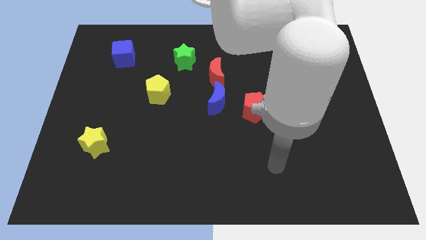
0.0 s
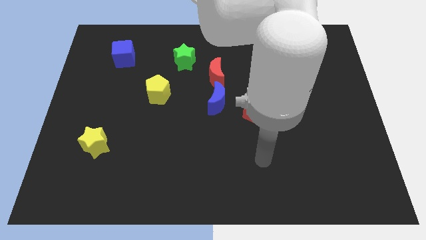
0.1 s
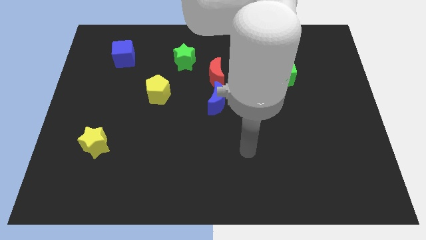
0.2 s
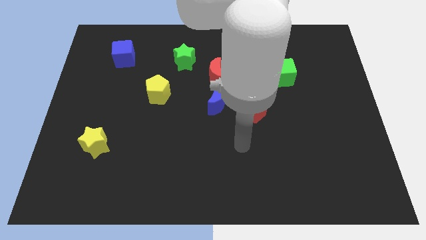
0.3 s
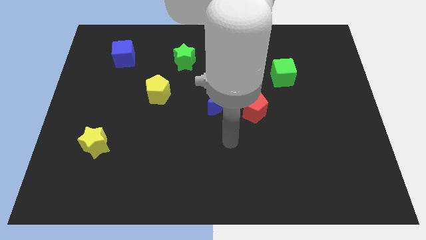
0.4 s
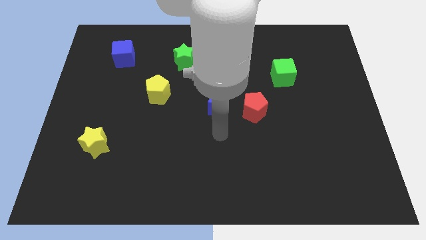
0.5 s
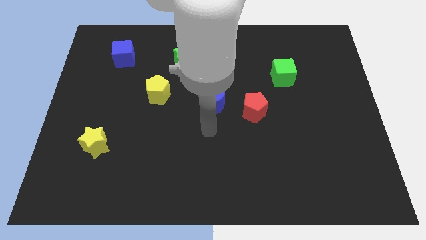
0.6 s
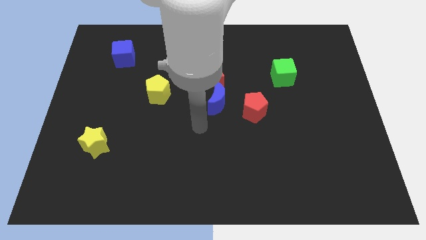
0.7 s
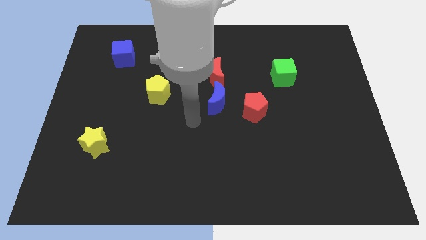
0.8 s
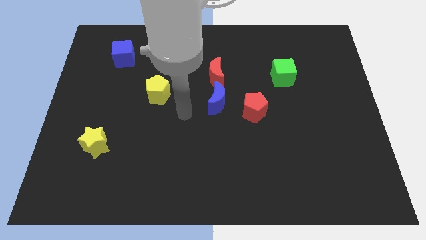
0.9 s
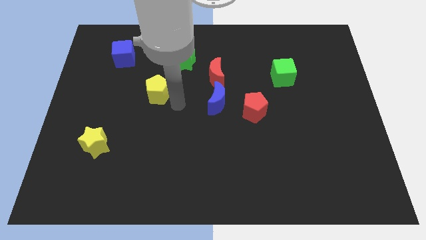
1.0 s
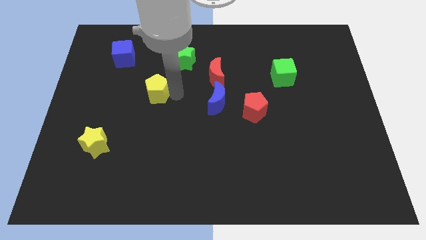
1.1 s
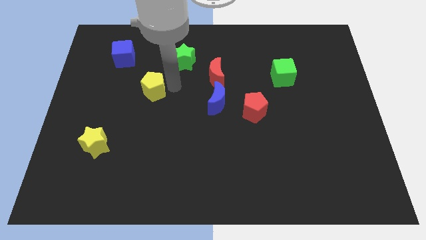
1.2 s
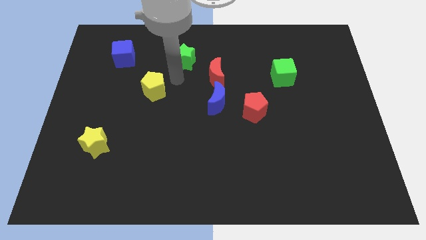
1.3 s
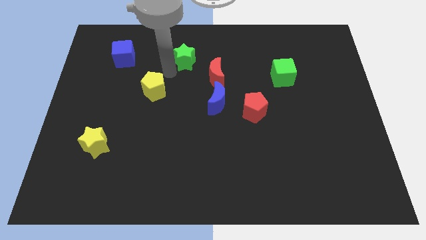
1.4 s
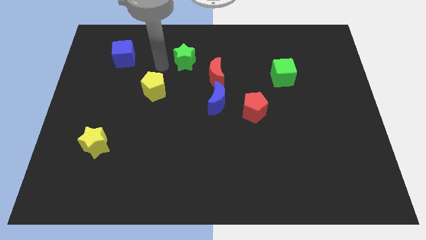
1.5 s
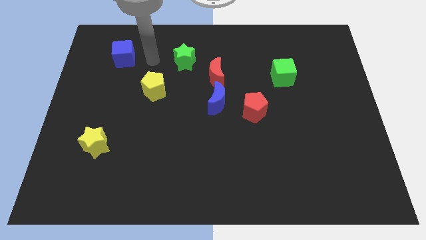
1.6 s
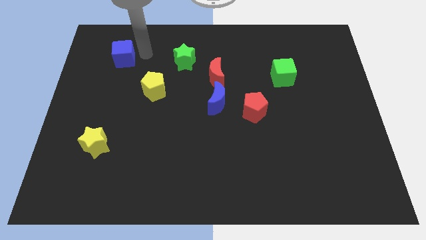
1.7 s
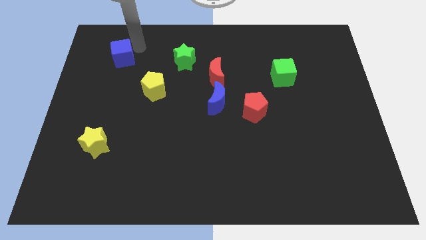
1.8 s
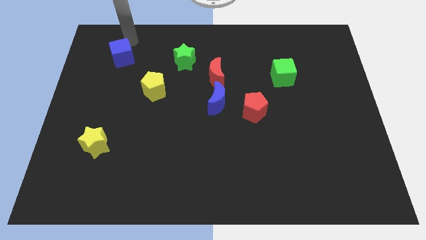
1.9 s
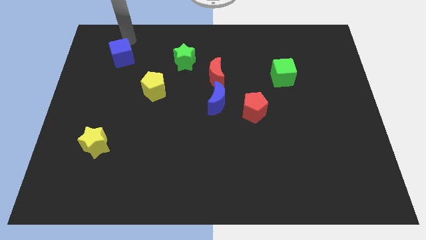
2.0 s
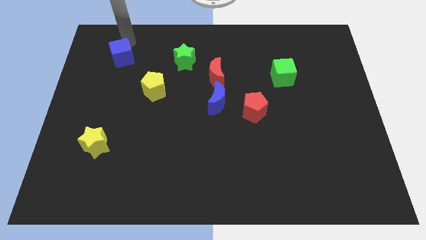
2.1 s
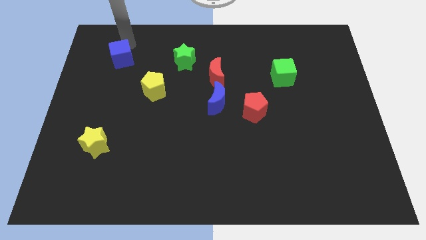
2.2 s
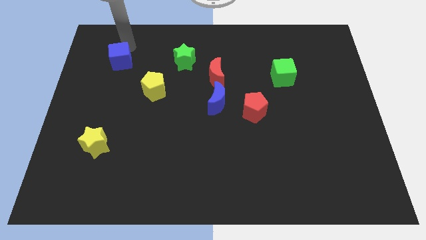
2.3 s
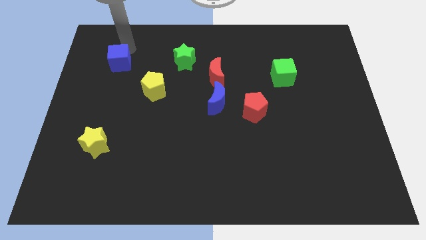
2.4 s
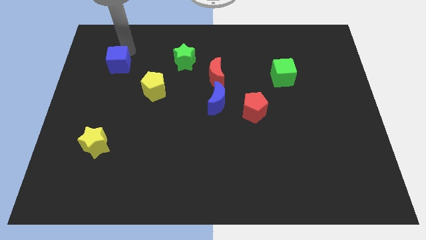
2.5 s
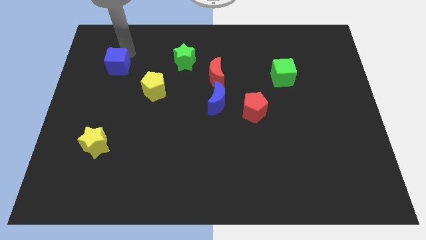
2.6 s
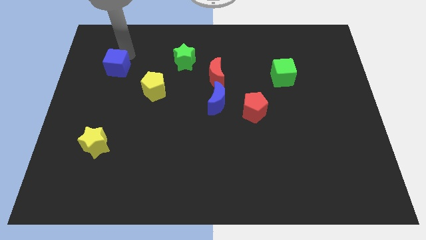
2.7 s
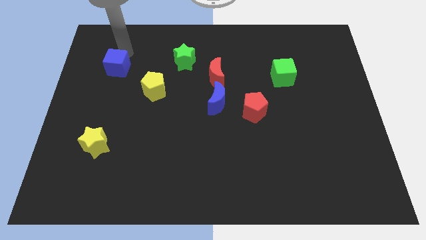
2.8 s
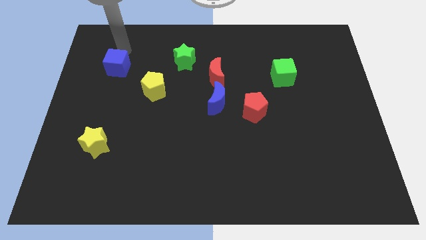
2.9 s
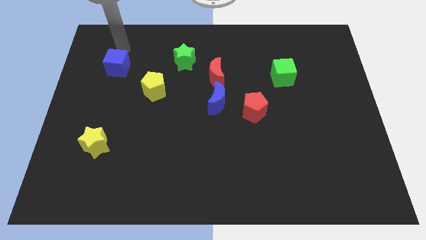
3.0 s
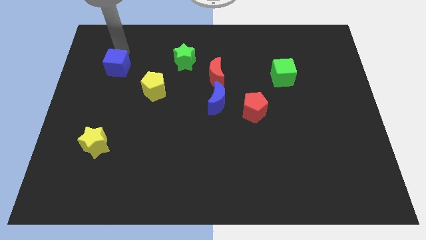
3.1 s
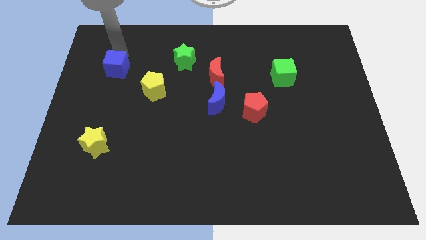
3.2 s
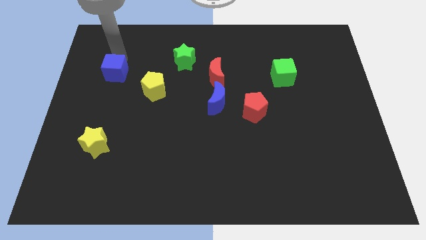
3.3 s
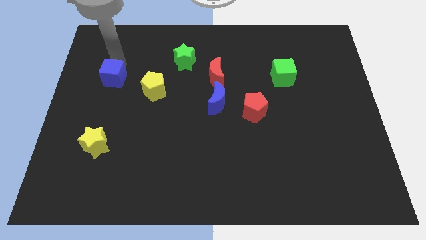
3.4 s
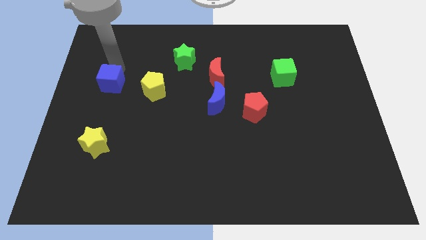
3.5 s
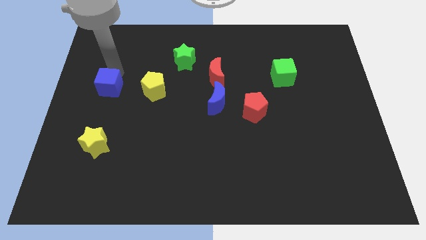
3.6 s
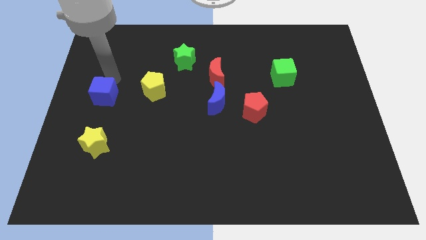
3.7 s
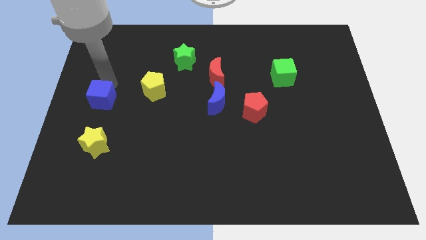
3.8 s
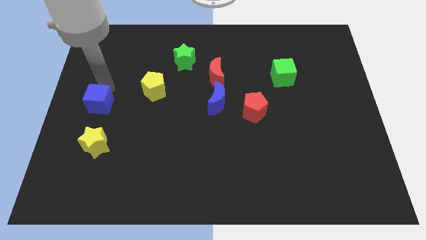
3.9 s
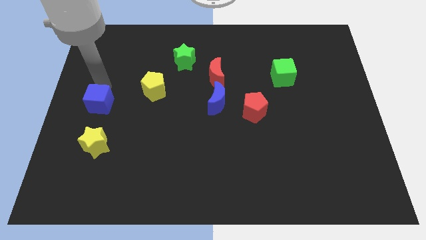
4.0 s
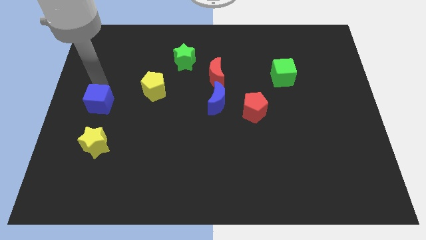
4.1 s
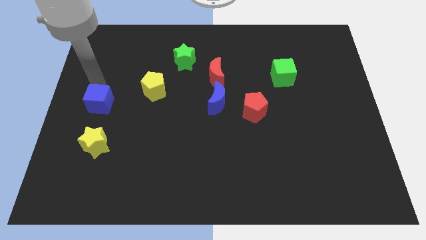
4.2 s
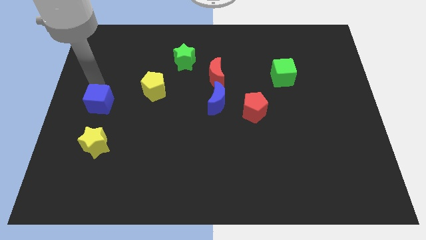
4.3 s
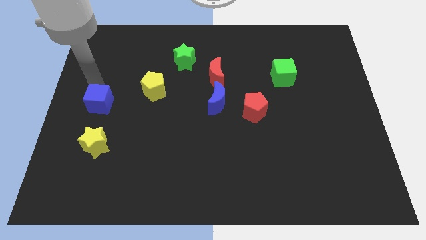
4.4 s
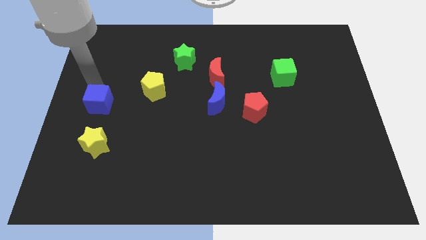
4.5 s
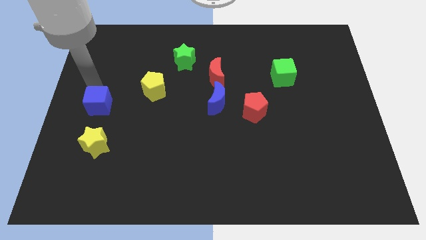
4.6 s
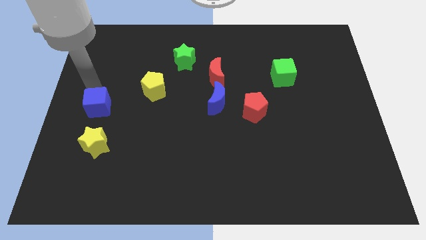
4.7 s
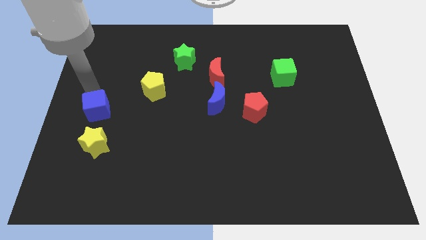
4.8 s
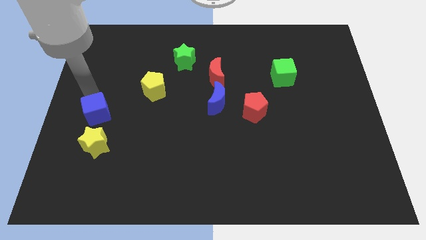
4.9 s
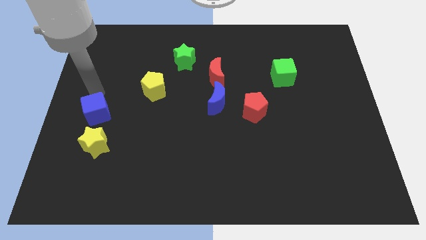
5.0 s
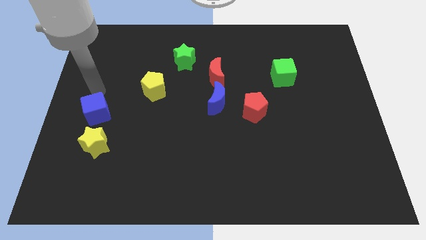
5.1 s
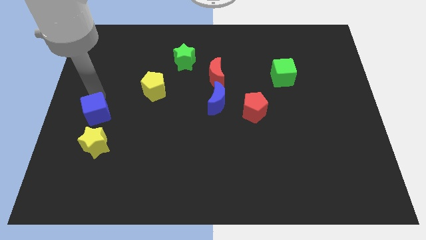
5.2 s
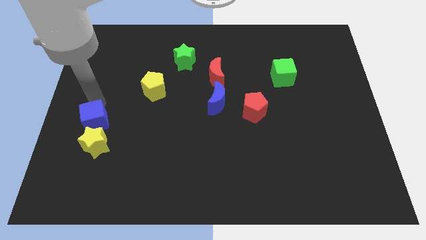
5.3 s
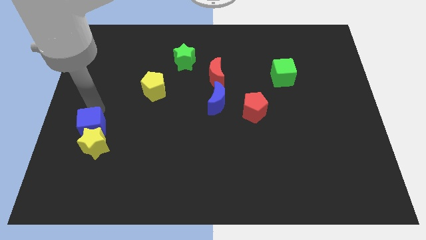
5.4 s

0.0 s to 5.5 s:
slide the blue cube to the yellow star

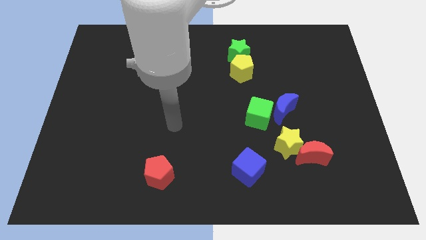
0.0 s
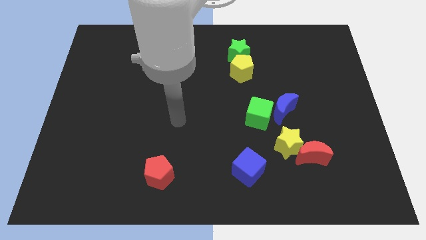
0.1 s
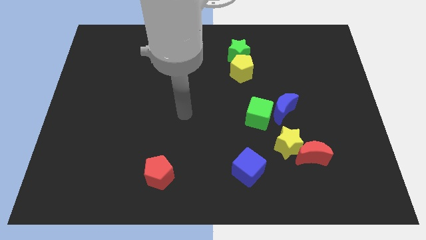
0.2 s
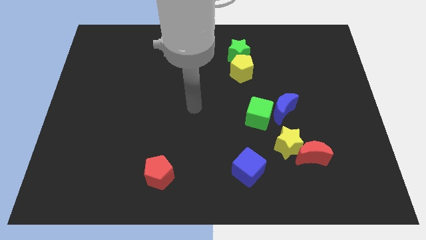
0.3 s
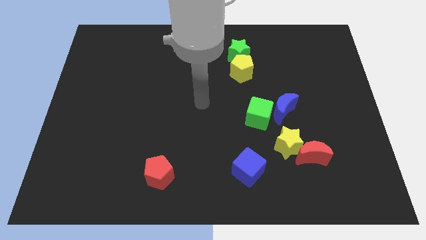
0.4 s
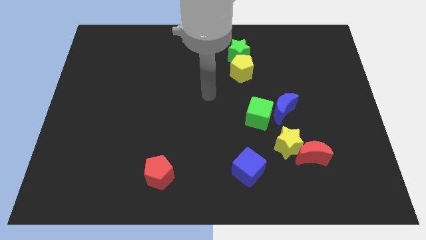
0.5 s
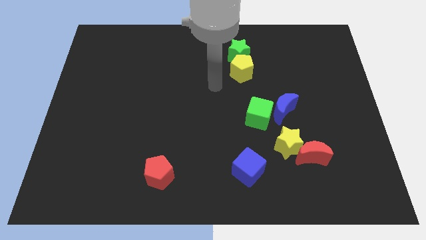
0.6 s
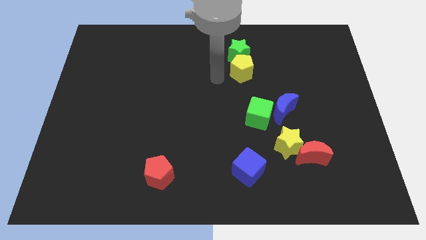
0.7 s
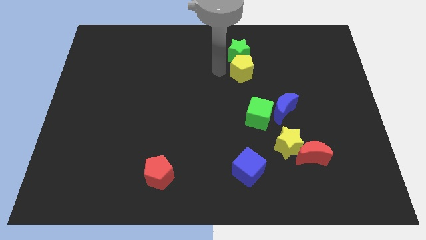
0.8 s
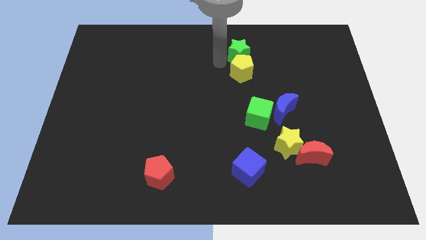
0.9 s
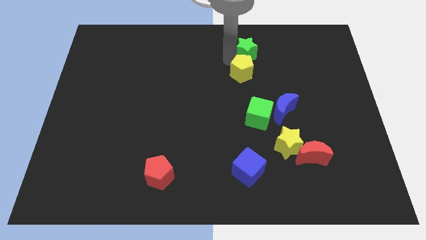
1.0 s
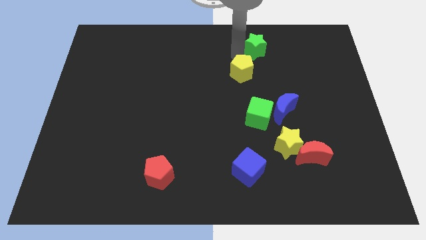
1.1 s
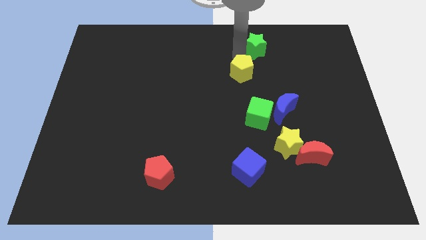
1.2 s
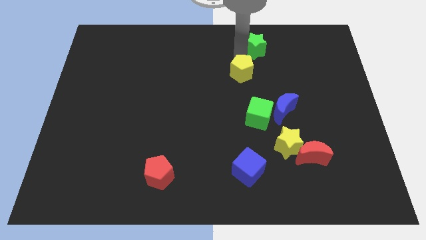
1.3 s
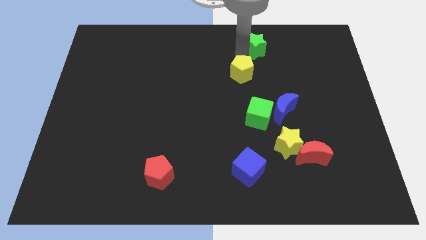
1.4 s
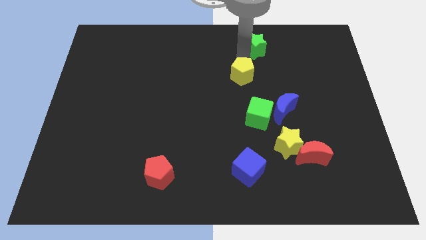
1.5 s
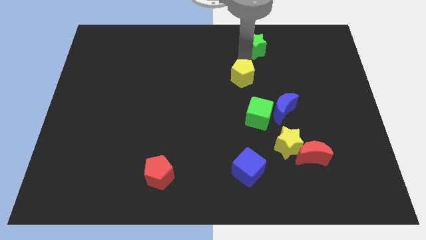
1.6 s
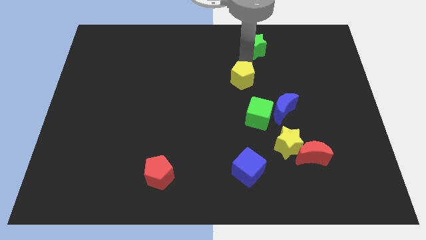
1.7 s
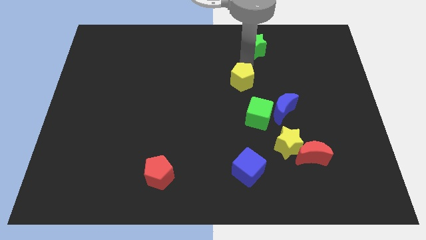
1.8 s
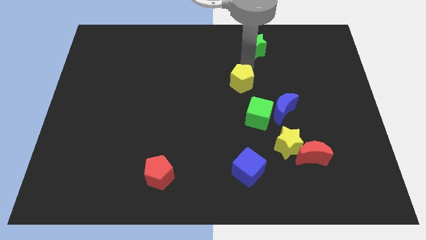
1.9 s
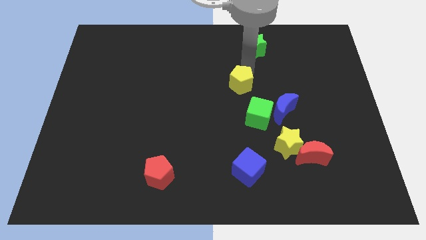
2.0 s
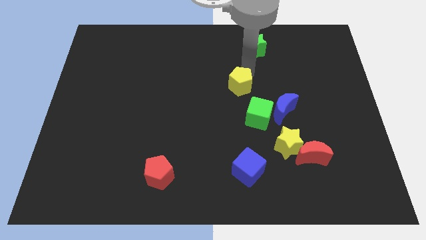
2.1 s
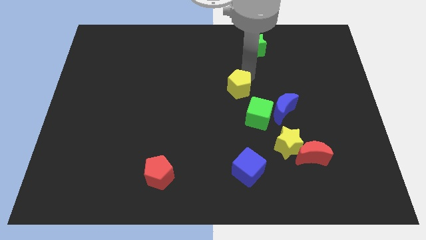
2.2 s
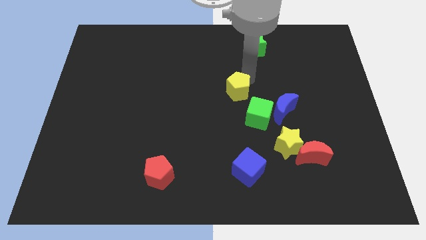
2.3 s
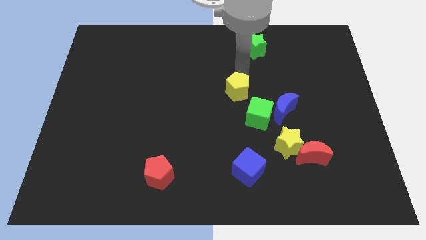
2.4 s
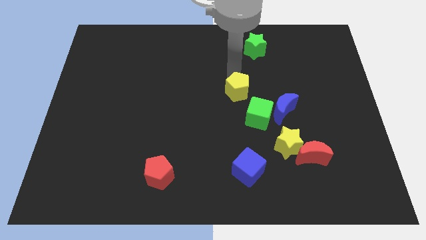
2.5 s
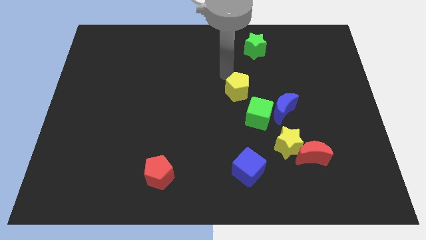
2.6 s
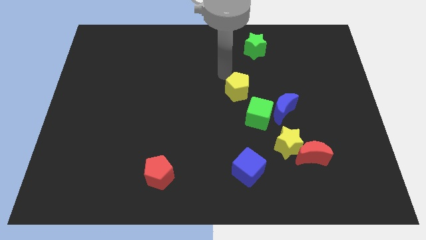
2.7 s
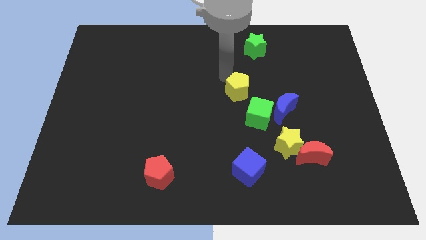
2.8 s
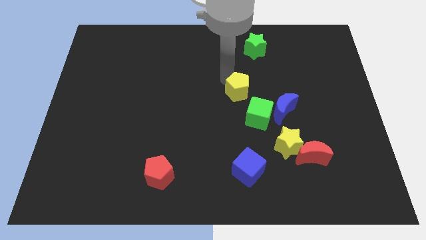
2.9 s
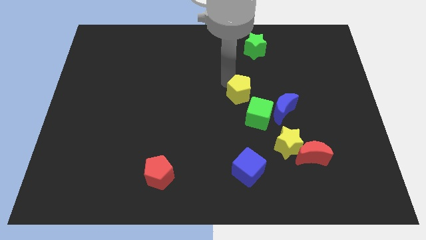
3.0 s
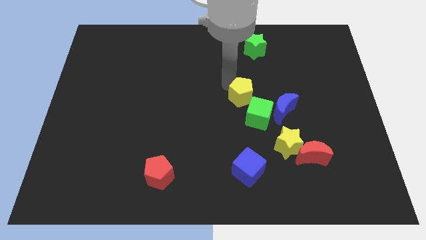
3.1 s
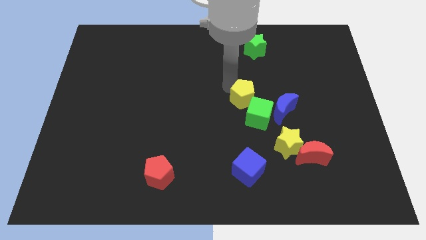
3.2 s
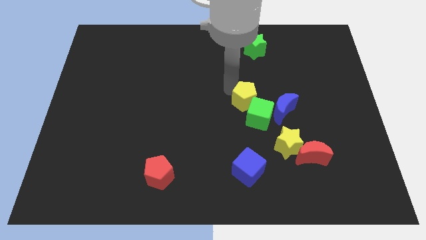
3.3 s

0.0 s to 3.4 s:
push the yellow pentagon to the green cube
